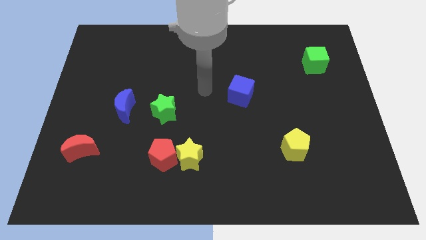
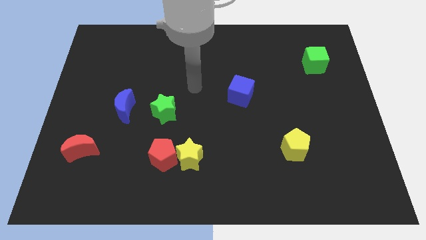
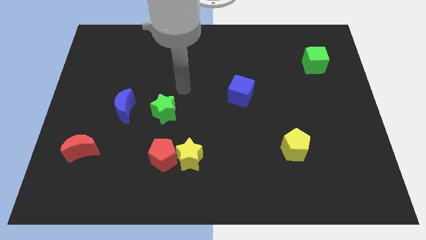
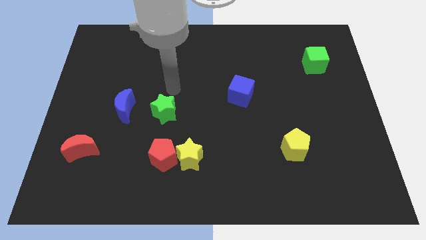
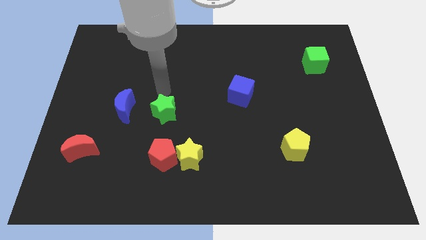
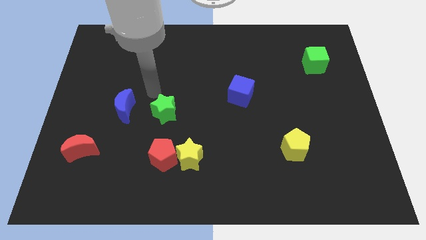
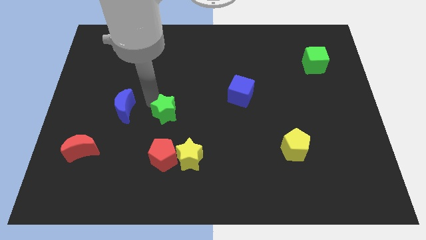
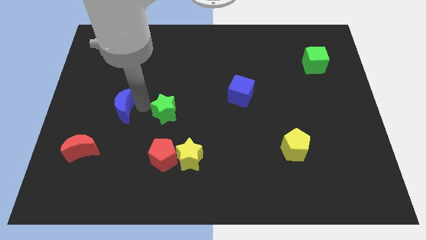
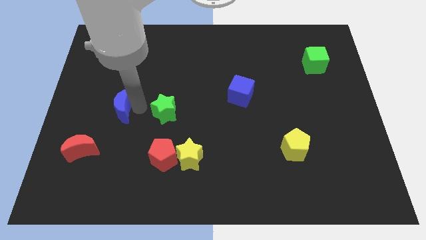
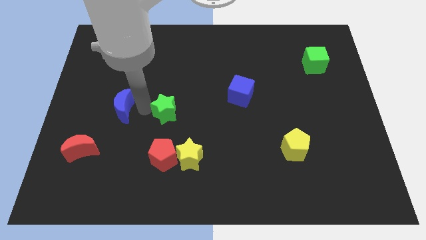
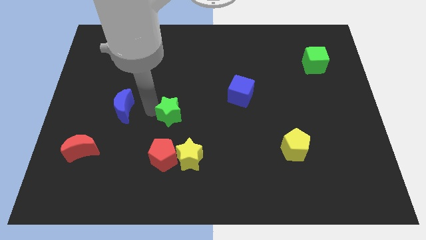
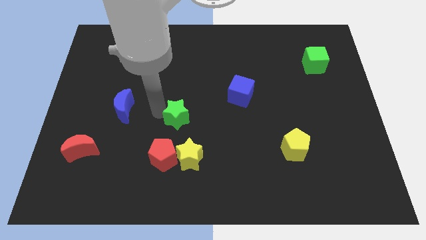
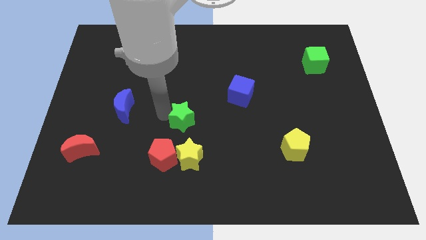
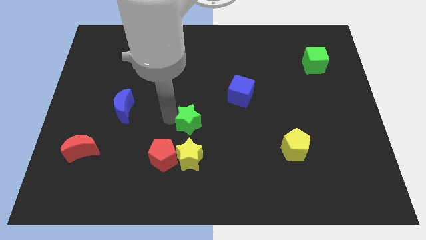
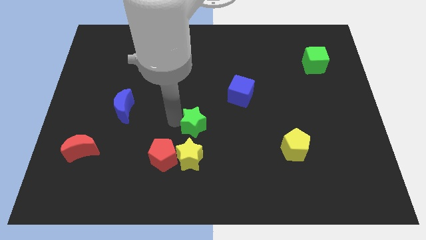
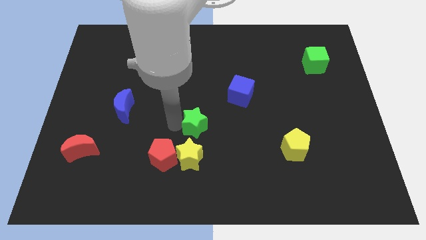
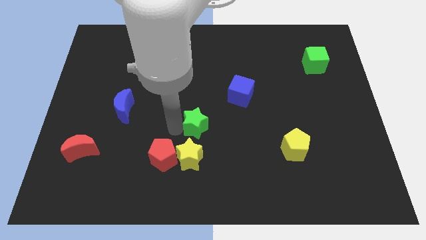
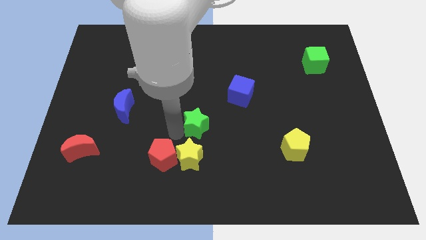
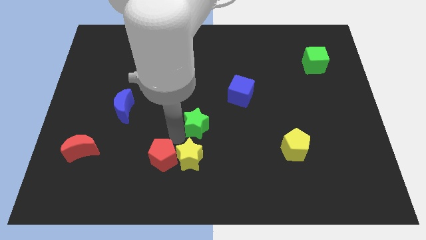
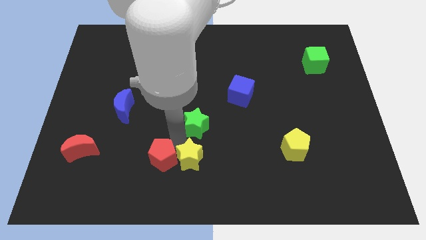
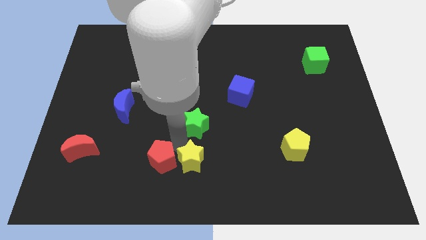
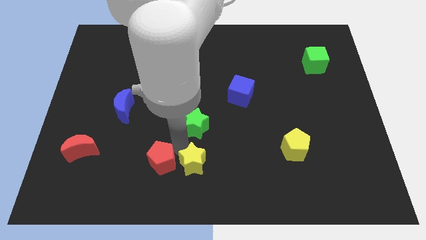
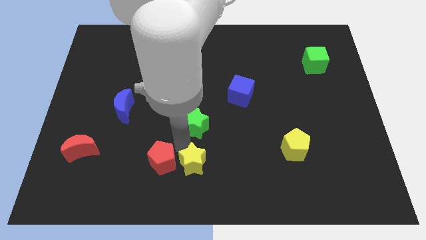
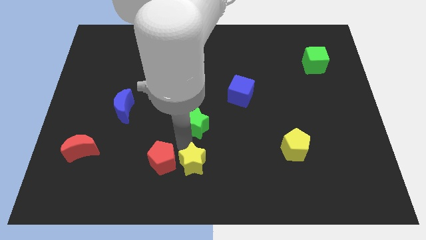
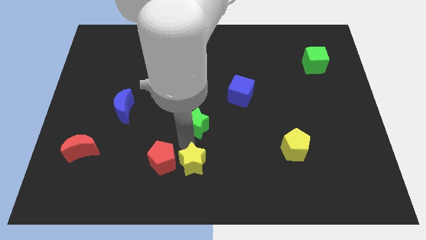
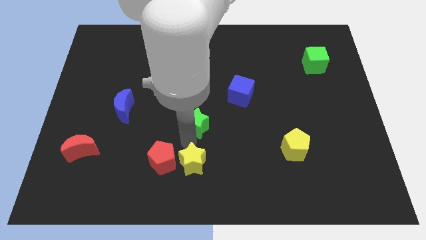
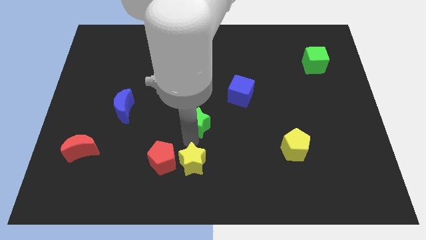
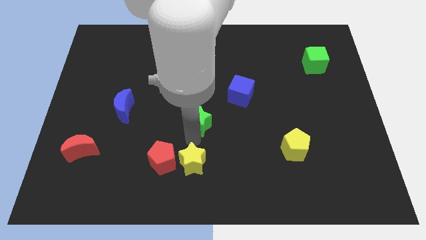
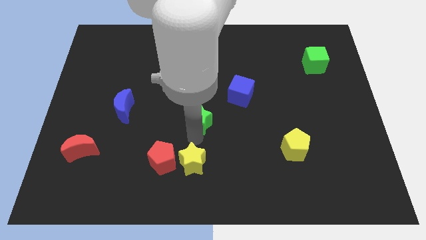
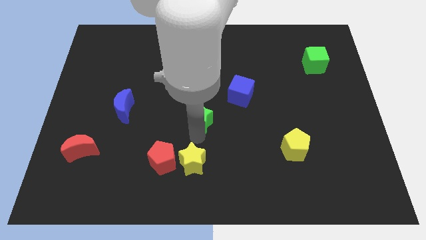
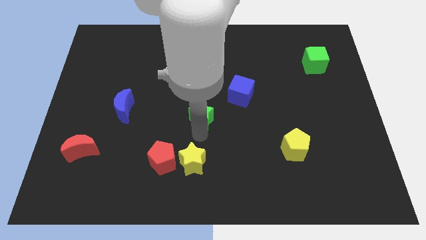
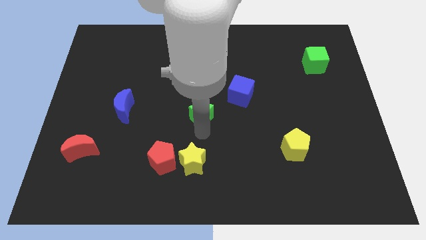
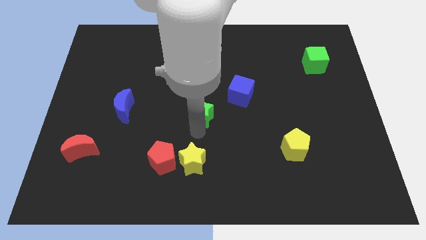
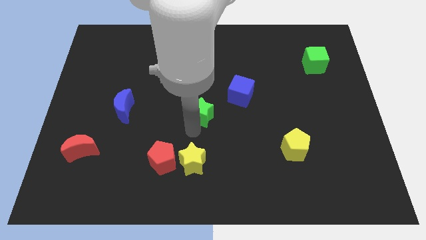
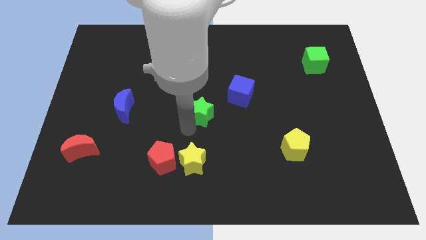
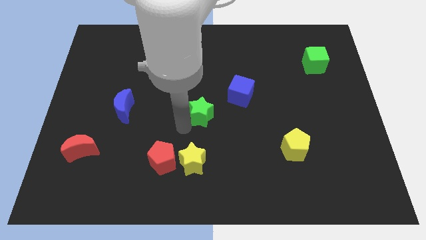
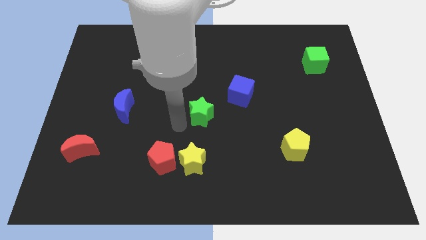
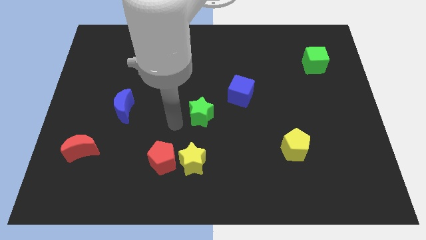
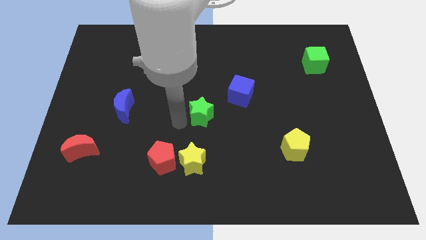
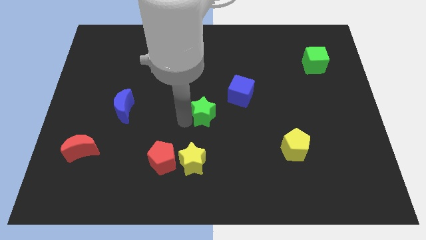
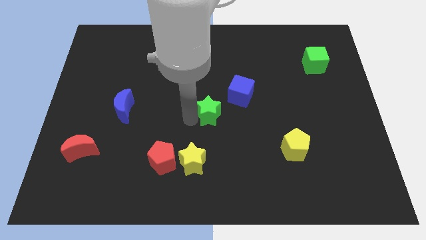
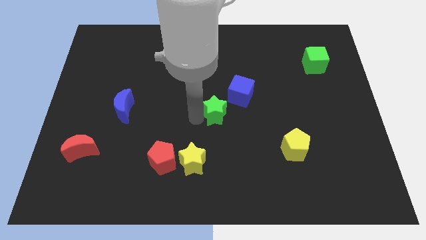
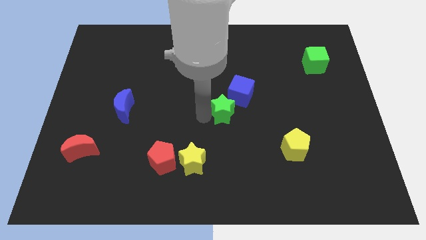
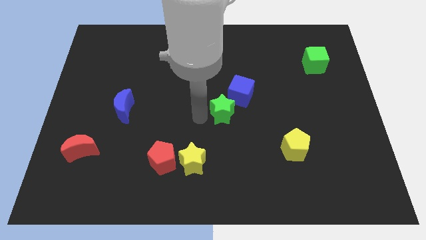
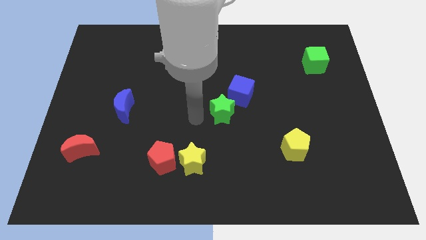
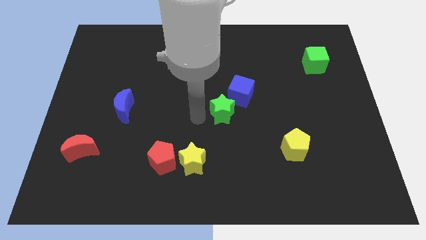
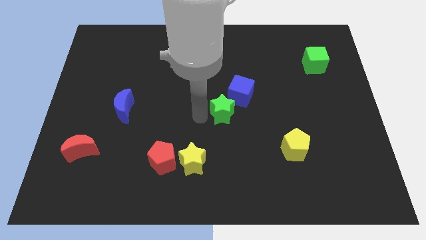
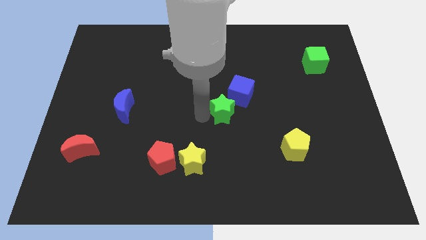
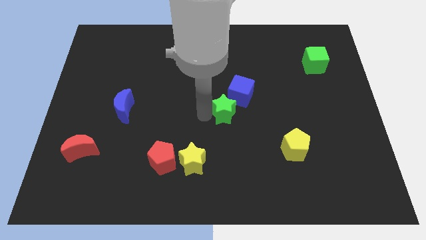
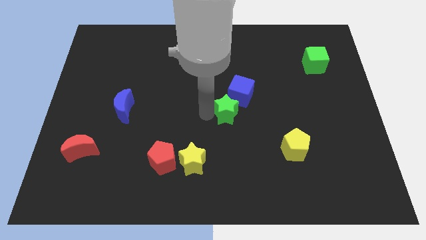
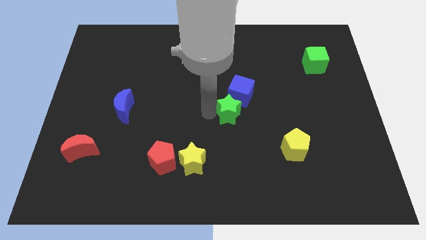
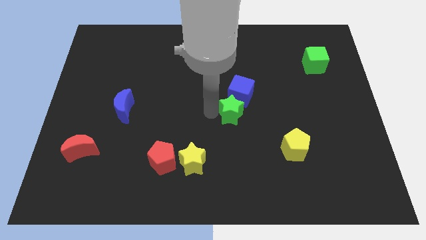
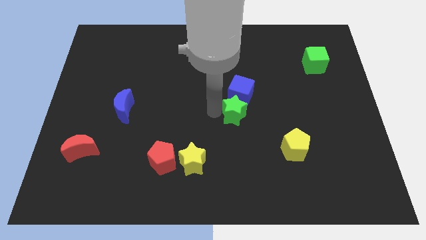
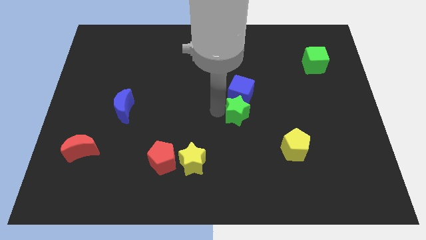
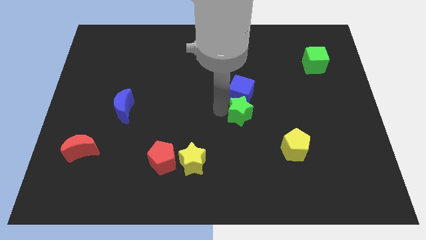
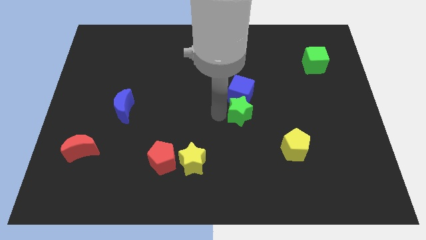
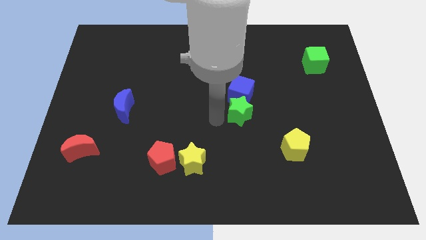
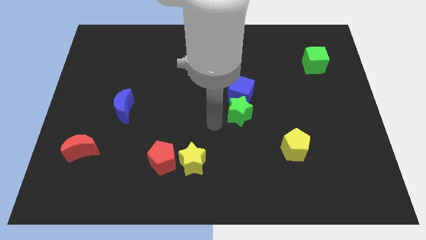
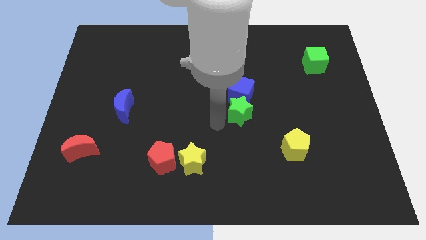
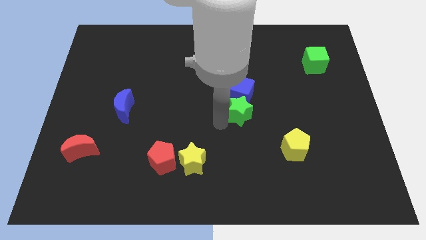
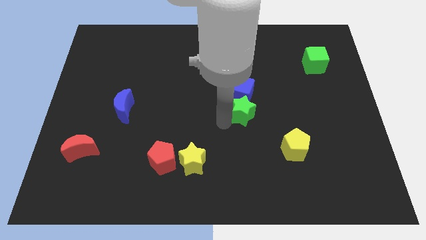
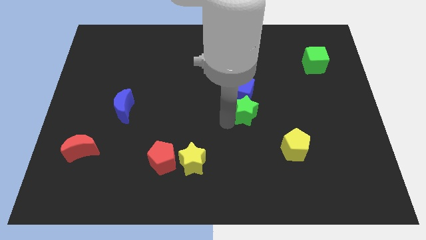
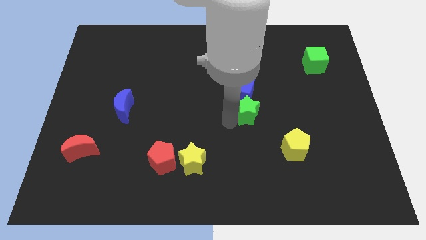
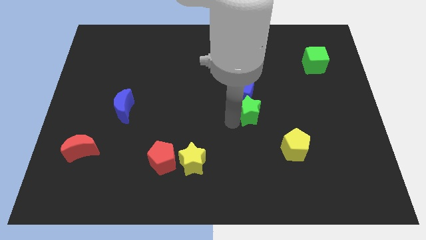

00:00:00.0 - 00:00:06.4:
slide the green star right

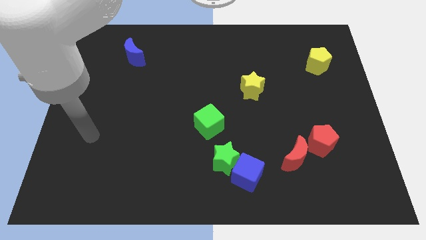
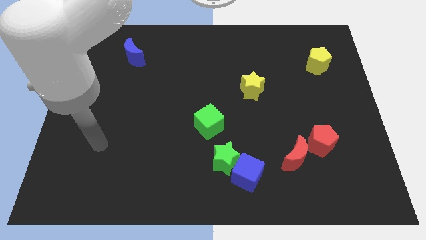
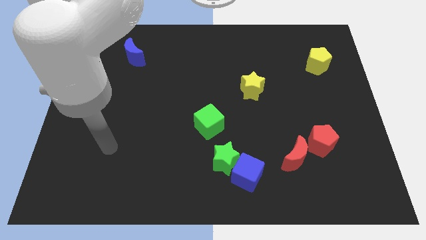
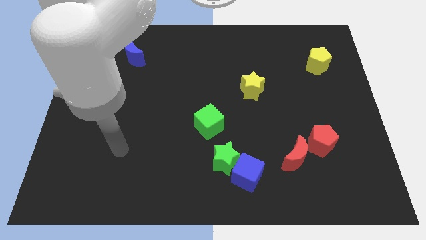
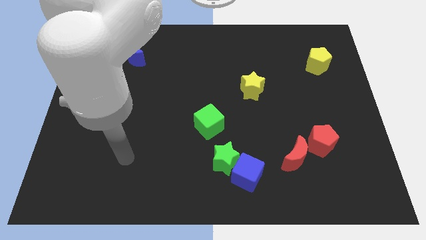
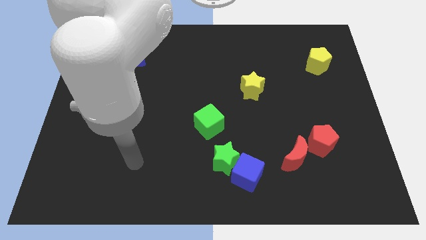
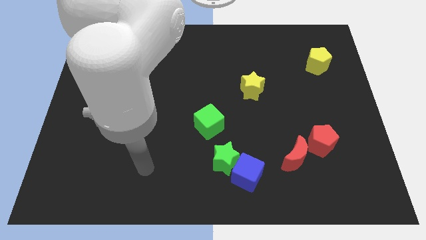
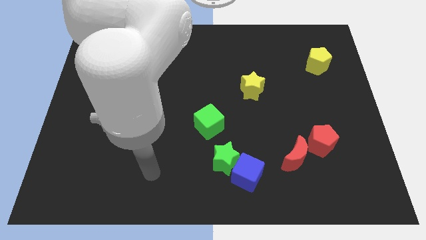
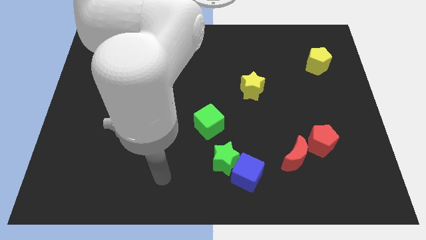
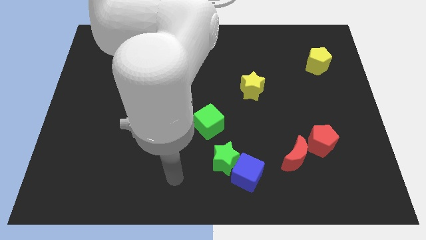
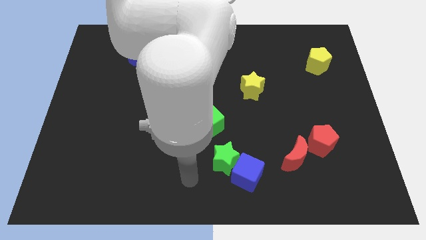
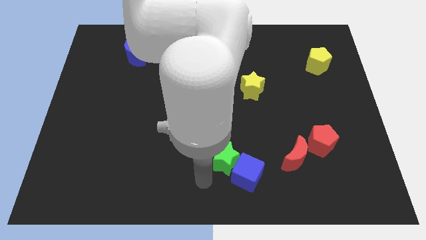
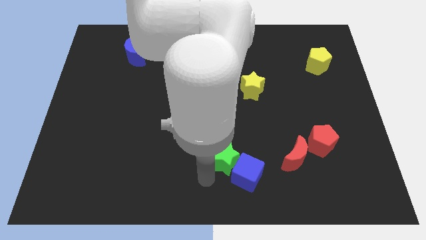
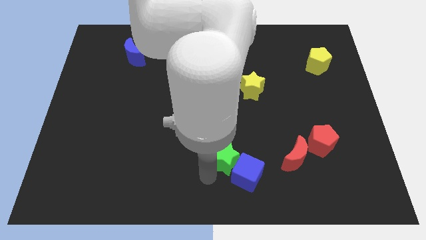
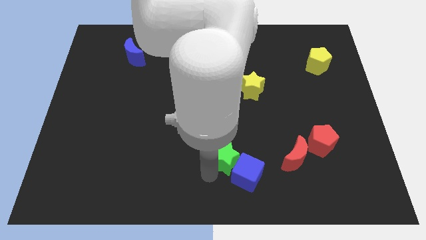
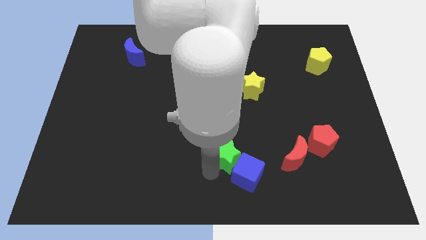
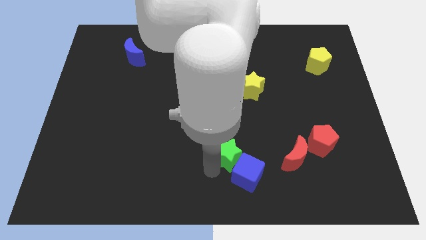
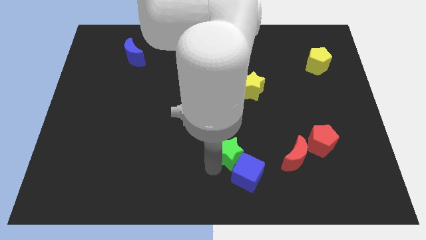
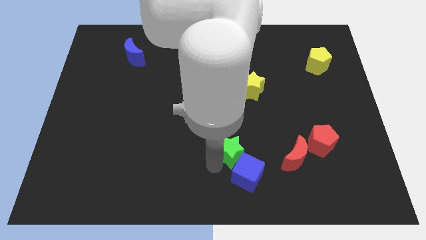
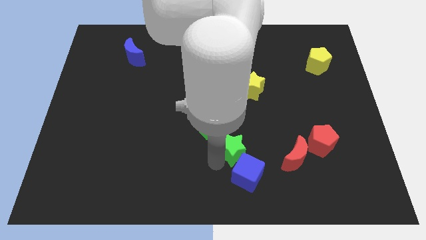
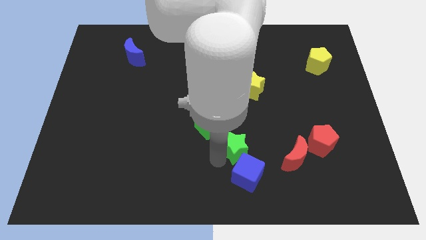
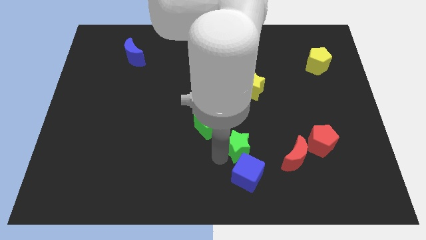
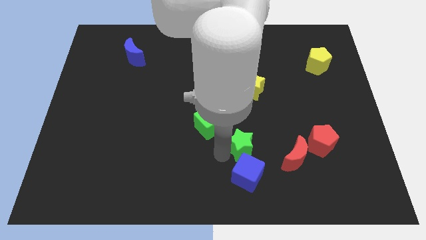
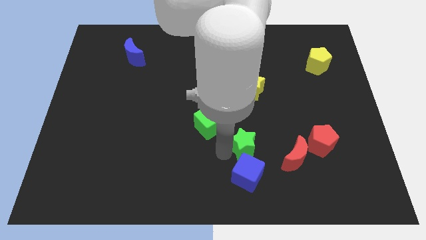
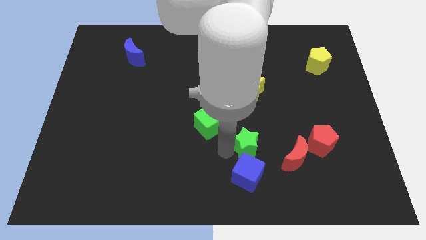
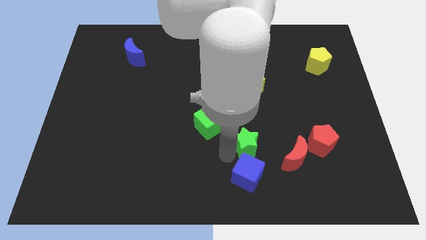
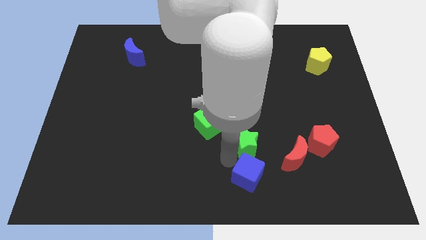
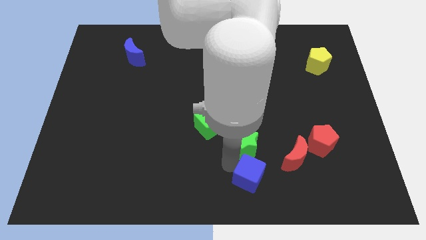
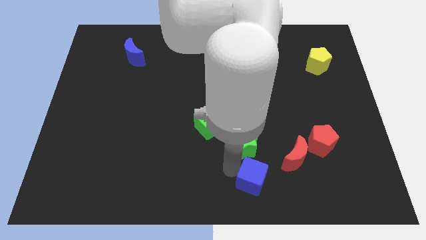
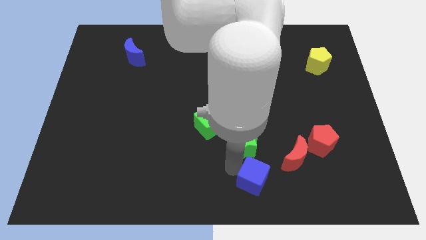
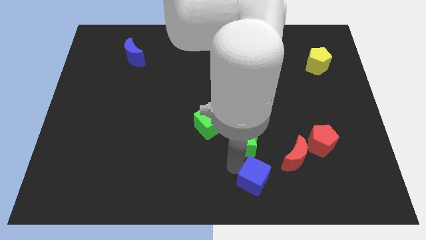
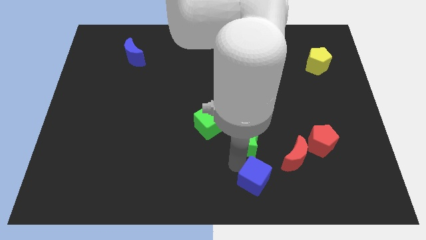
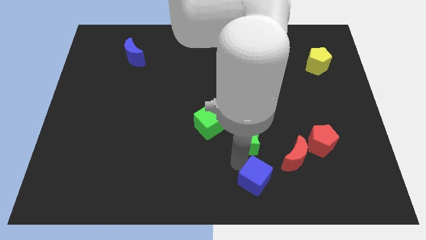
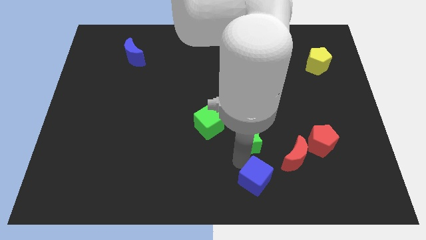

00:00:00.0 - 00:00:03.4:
slightly move the green star upwards and to the right
